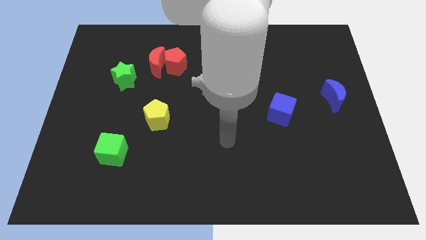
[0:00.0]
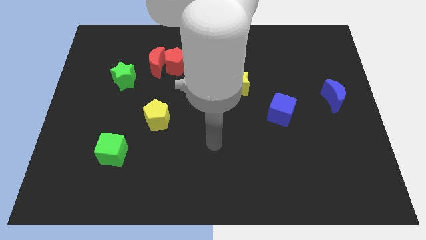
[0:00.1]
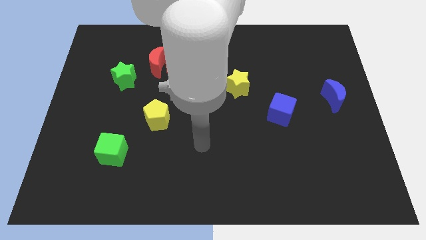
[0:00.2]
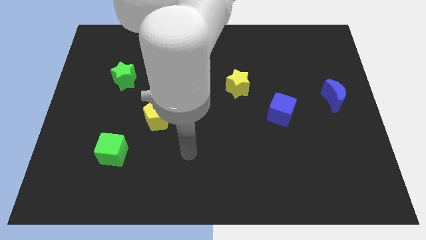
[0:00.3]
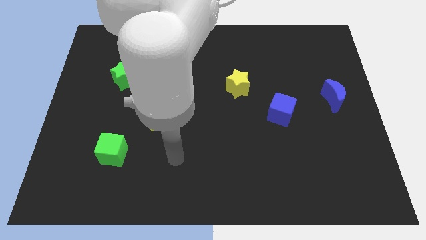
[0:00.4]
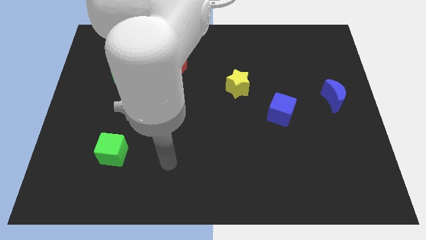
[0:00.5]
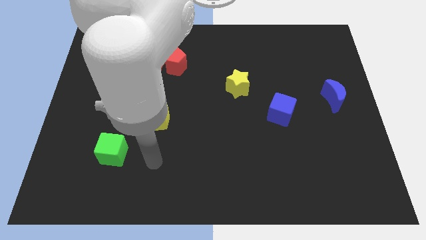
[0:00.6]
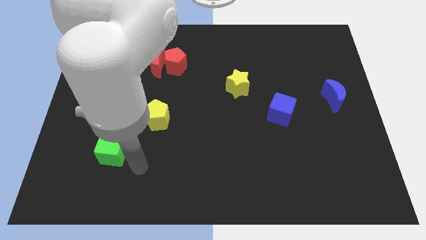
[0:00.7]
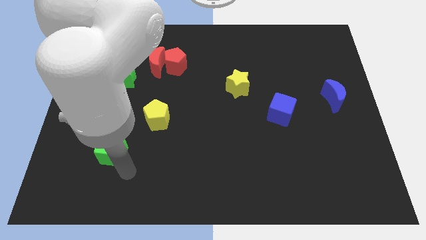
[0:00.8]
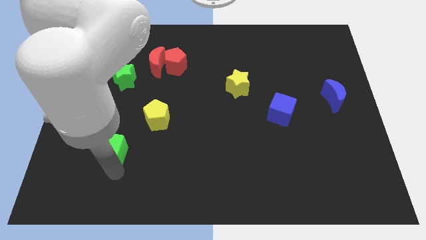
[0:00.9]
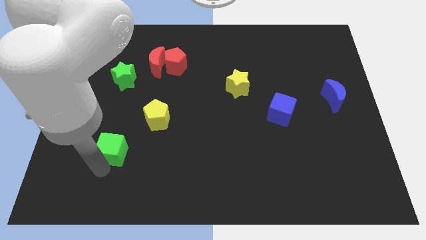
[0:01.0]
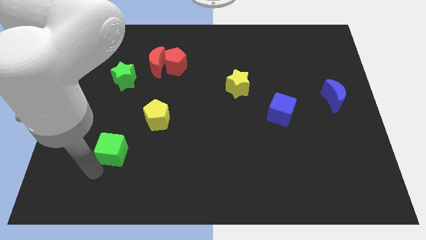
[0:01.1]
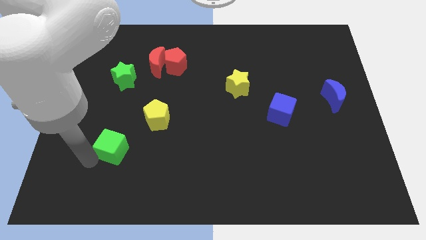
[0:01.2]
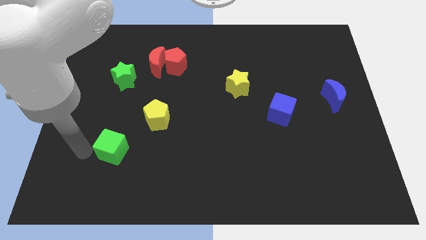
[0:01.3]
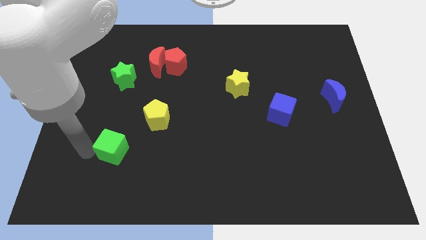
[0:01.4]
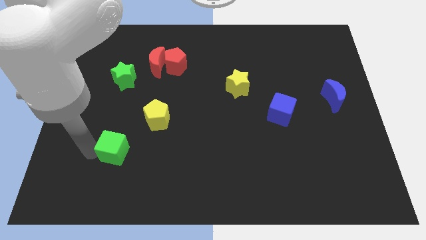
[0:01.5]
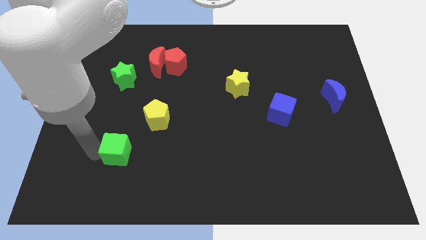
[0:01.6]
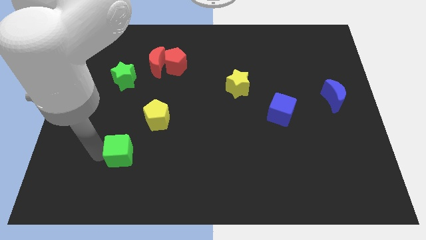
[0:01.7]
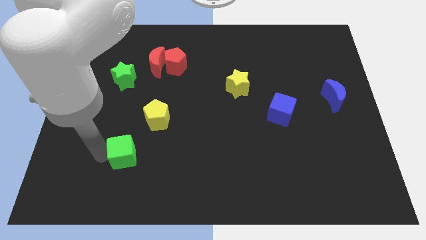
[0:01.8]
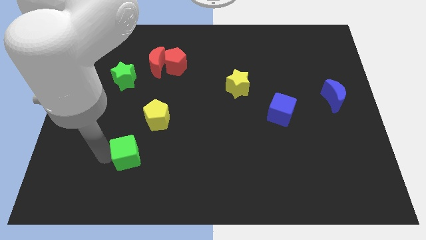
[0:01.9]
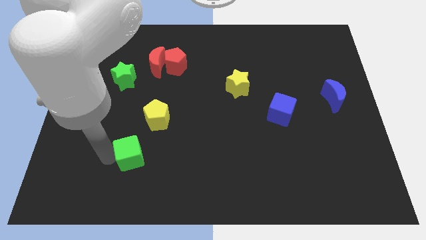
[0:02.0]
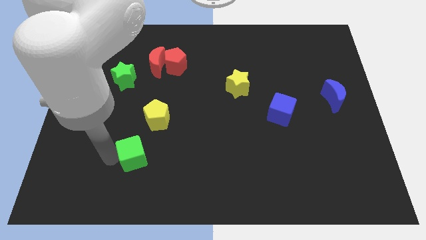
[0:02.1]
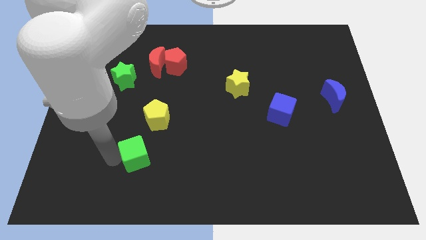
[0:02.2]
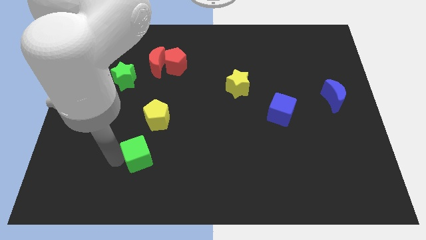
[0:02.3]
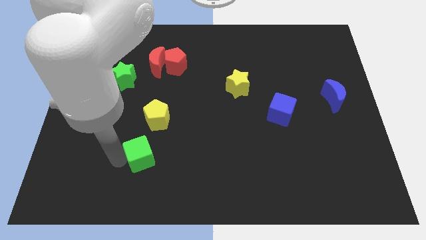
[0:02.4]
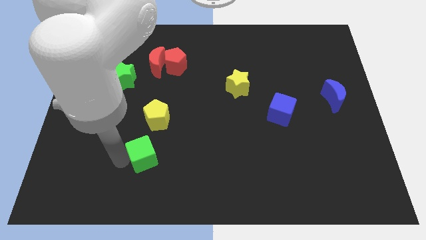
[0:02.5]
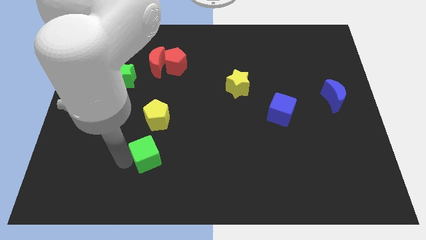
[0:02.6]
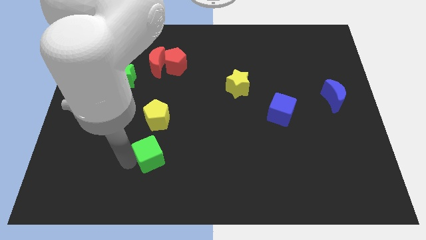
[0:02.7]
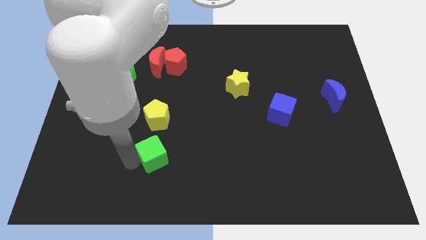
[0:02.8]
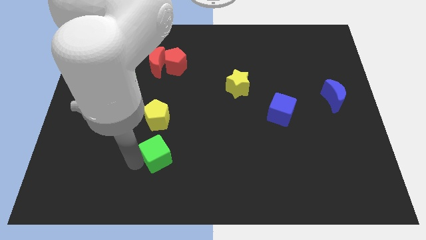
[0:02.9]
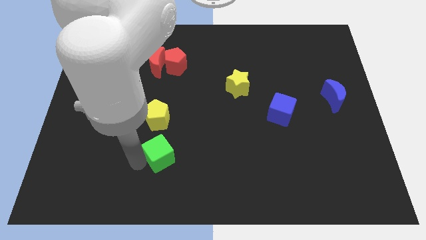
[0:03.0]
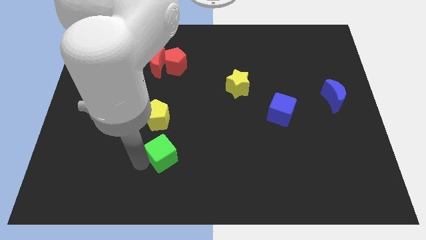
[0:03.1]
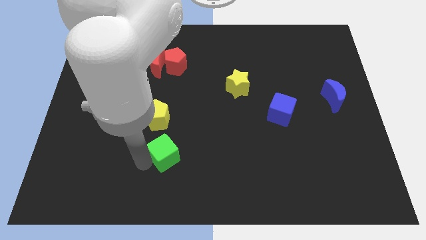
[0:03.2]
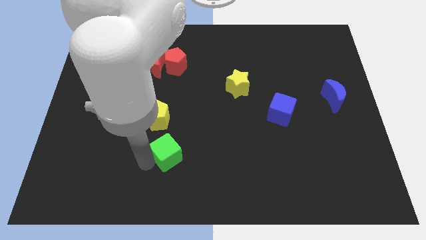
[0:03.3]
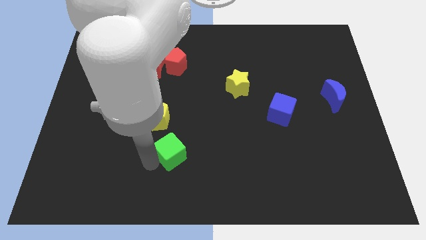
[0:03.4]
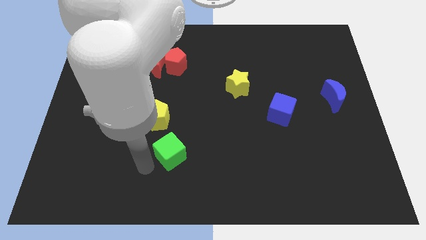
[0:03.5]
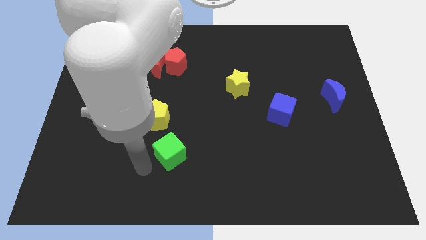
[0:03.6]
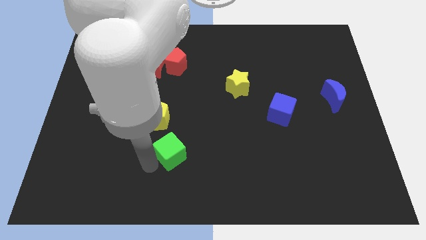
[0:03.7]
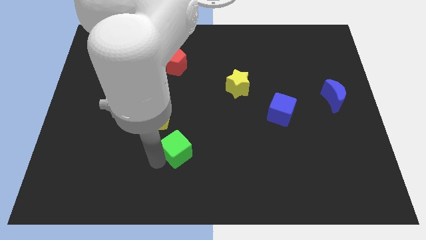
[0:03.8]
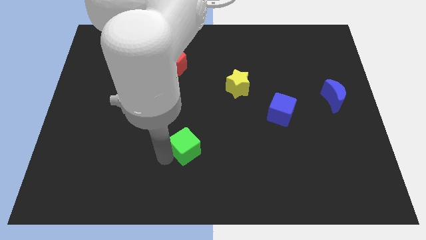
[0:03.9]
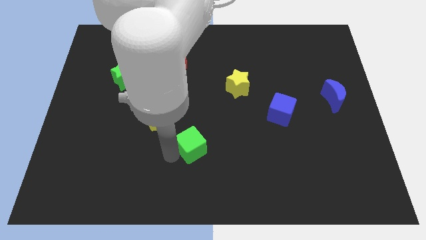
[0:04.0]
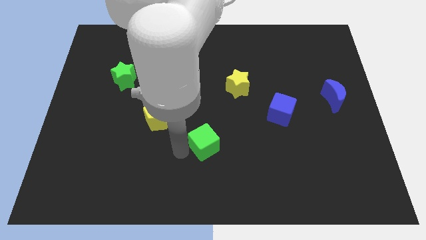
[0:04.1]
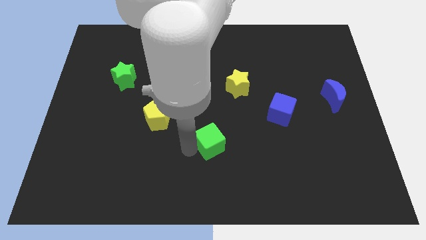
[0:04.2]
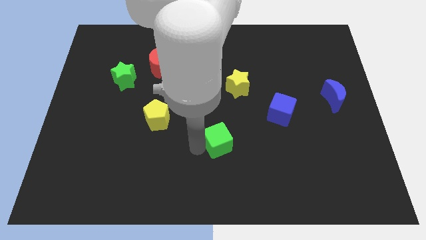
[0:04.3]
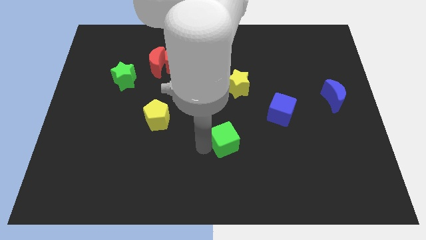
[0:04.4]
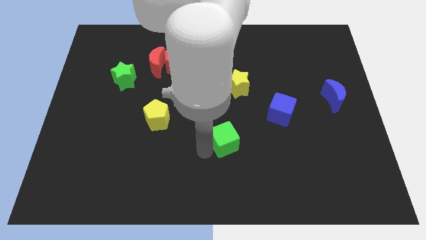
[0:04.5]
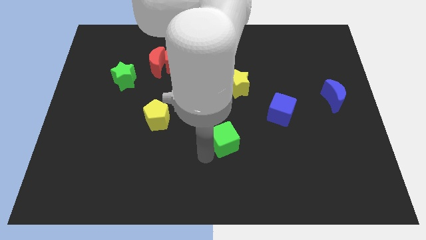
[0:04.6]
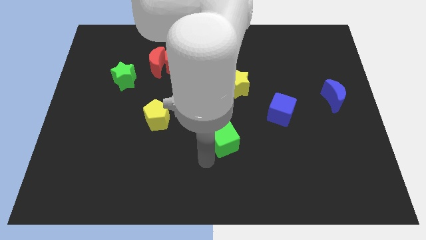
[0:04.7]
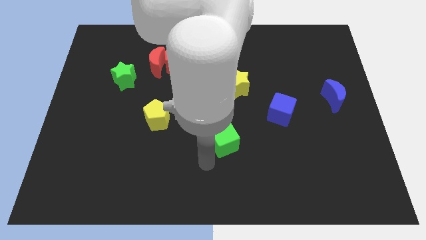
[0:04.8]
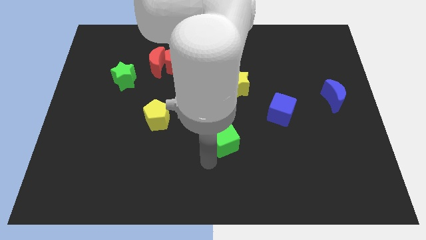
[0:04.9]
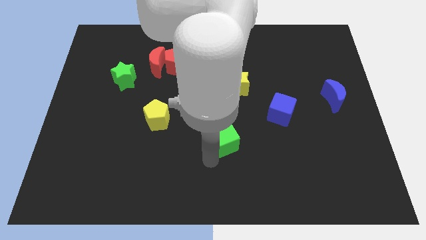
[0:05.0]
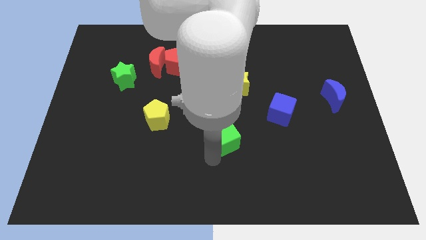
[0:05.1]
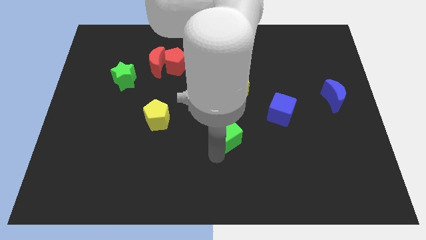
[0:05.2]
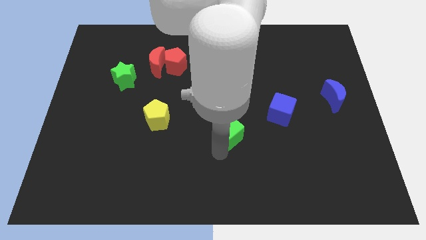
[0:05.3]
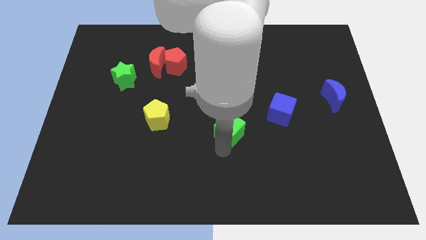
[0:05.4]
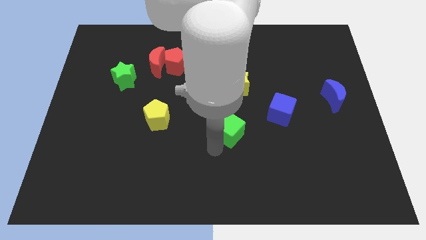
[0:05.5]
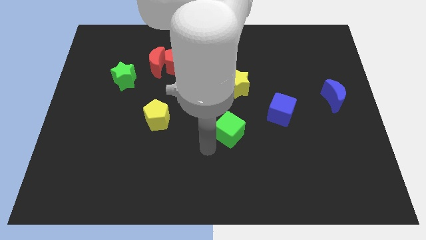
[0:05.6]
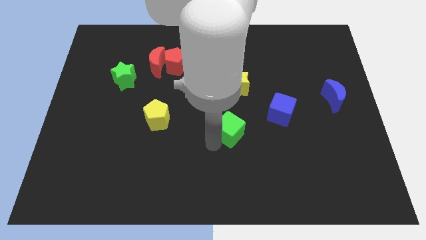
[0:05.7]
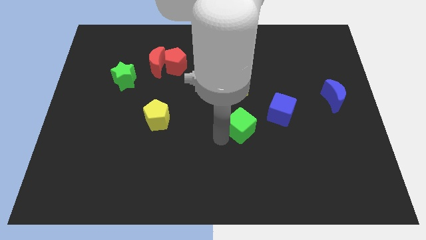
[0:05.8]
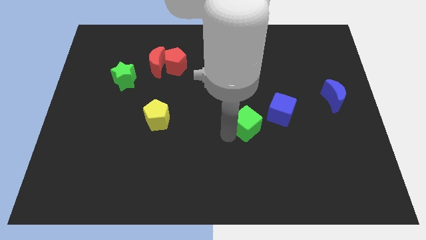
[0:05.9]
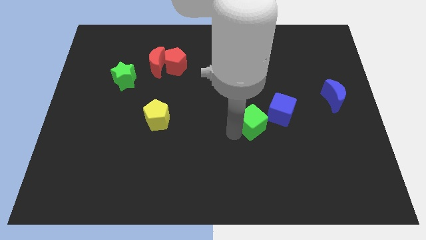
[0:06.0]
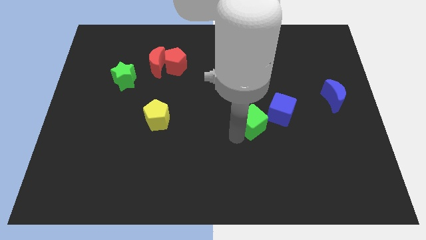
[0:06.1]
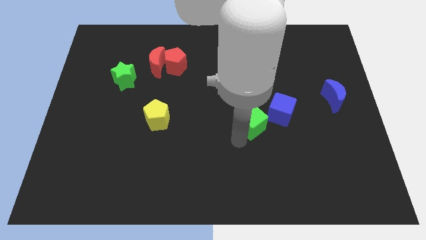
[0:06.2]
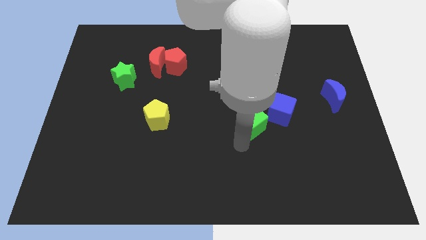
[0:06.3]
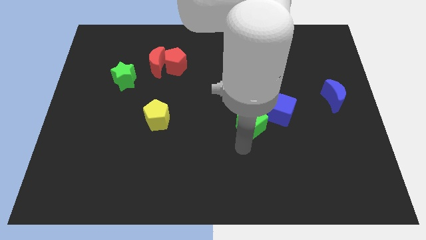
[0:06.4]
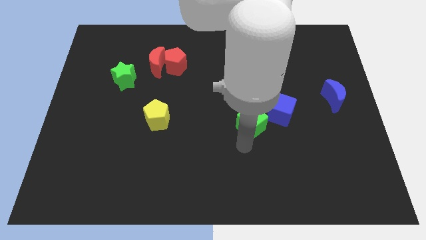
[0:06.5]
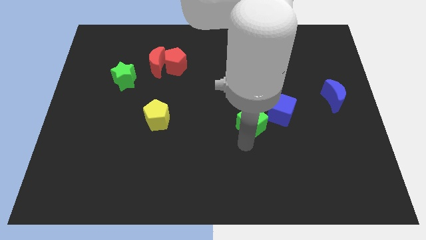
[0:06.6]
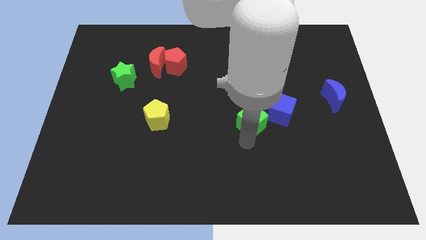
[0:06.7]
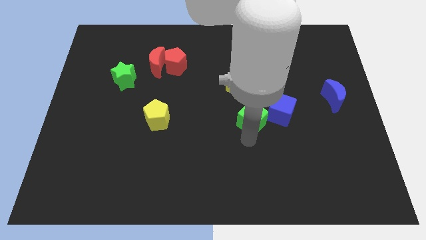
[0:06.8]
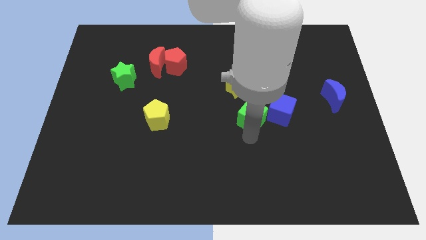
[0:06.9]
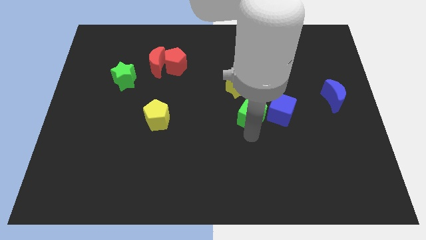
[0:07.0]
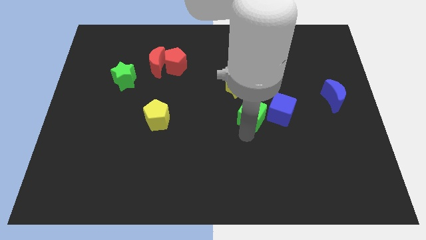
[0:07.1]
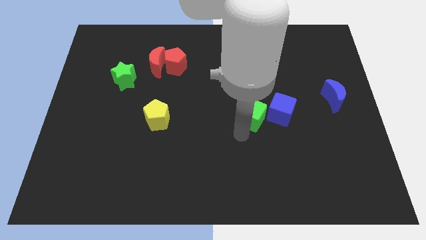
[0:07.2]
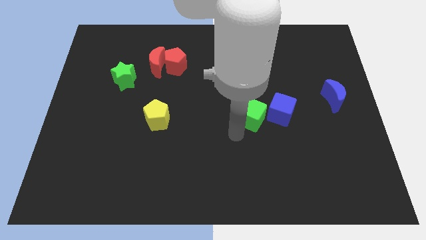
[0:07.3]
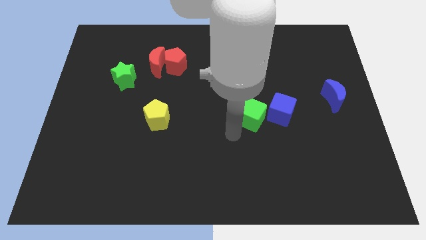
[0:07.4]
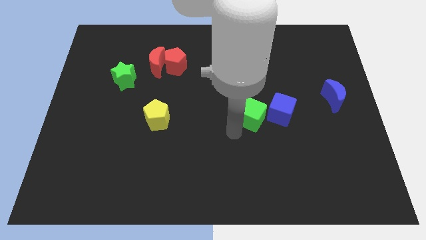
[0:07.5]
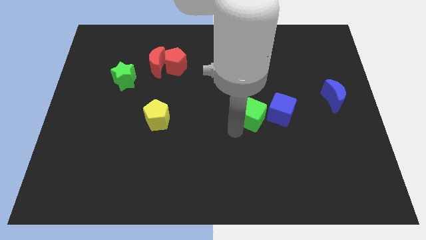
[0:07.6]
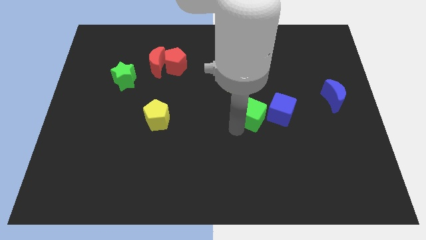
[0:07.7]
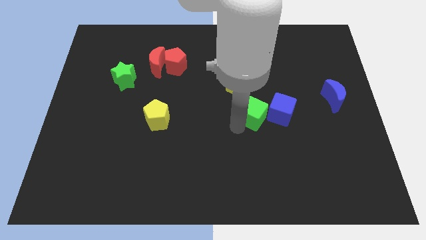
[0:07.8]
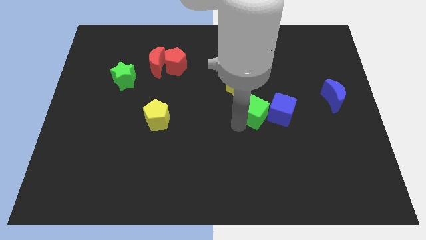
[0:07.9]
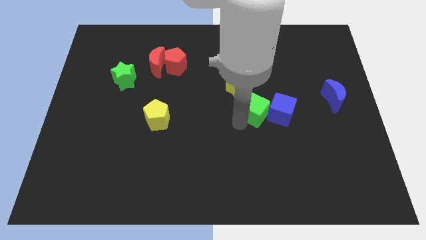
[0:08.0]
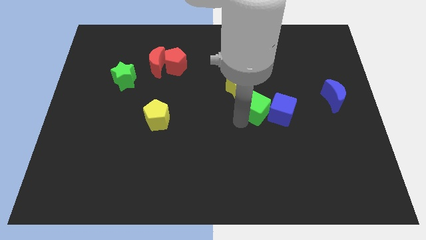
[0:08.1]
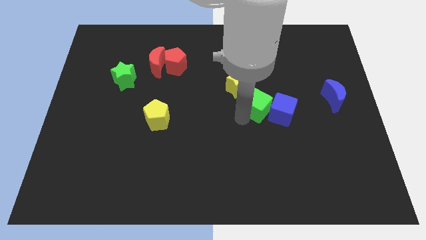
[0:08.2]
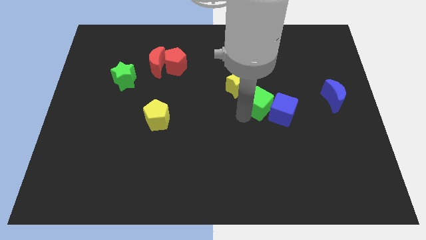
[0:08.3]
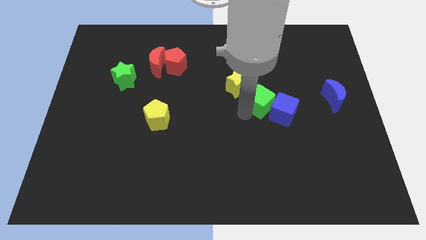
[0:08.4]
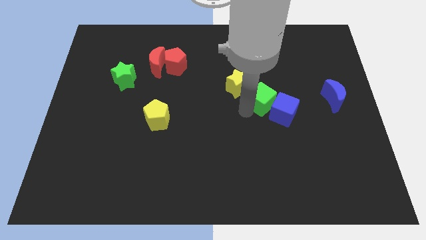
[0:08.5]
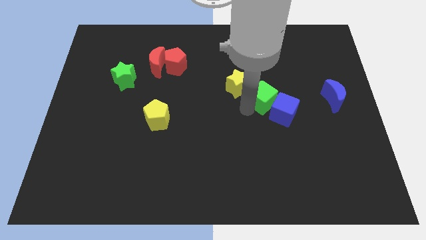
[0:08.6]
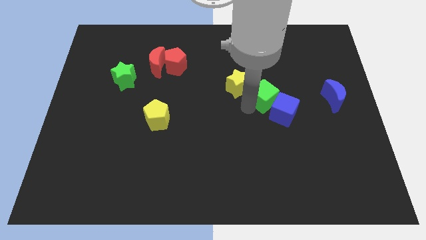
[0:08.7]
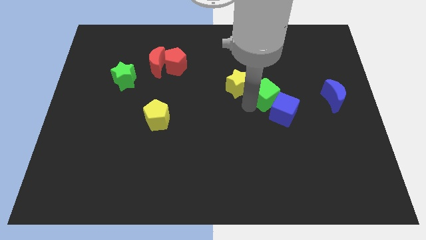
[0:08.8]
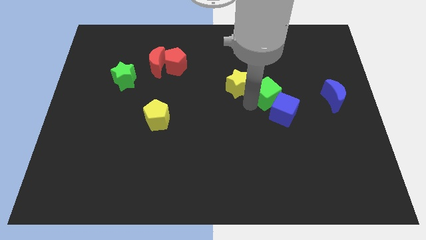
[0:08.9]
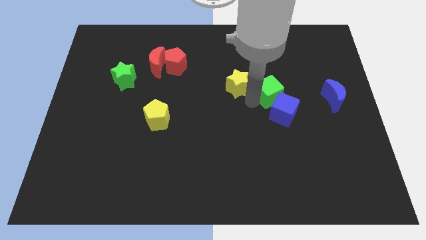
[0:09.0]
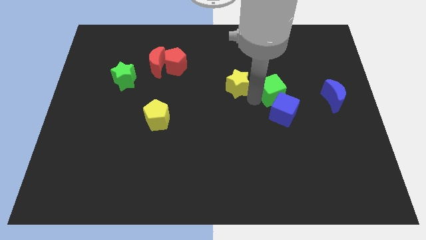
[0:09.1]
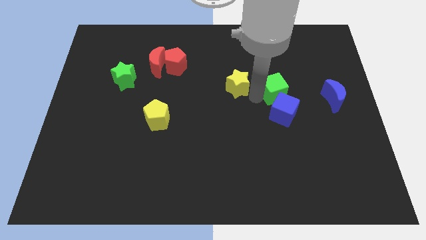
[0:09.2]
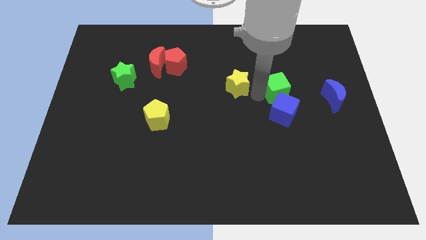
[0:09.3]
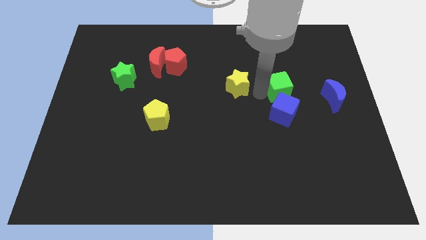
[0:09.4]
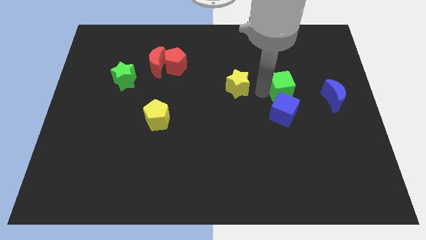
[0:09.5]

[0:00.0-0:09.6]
put the green cube to the top right of the blue cube
